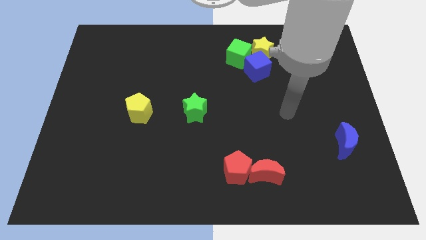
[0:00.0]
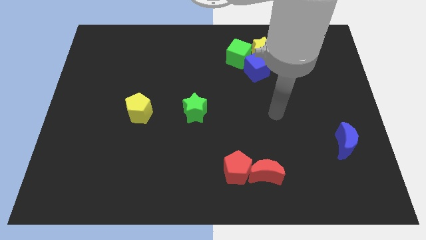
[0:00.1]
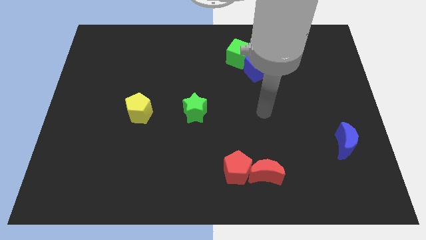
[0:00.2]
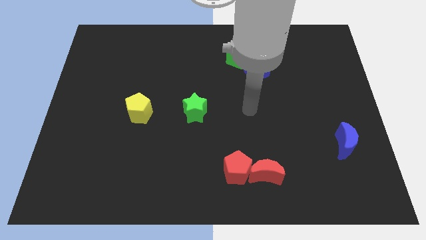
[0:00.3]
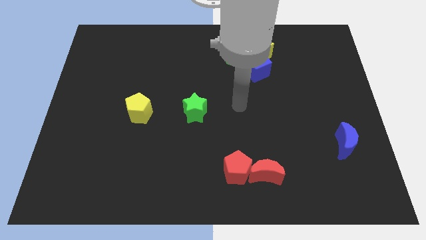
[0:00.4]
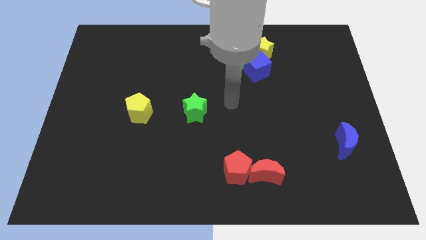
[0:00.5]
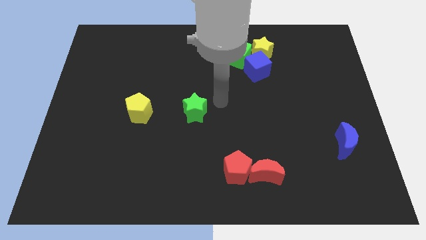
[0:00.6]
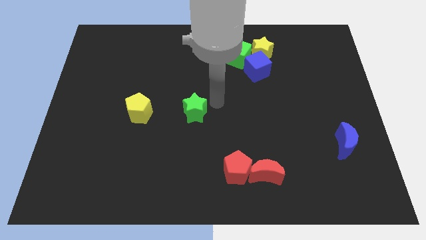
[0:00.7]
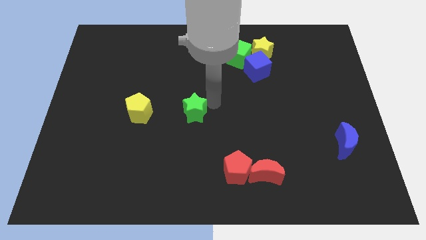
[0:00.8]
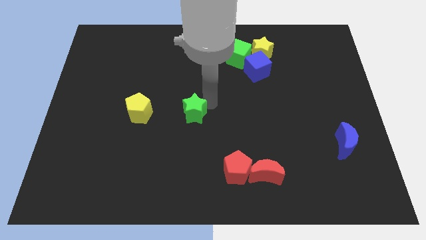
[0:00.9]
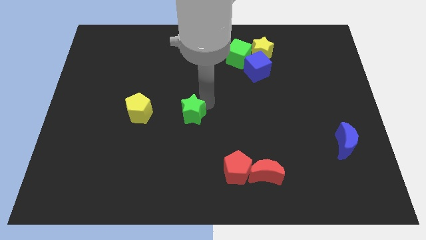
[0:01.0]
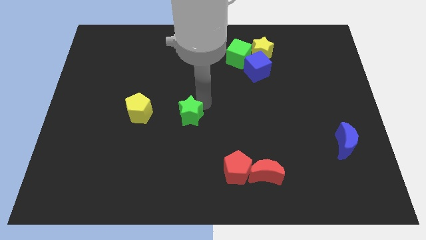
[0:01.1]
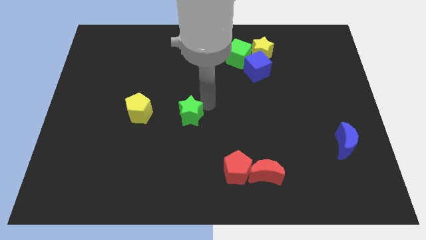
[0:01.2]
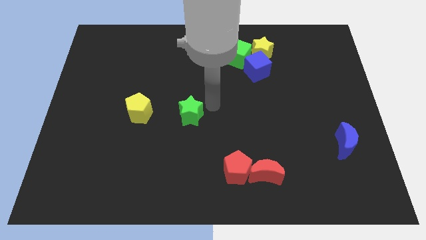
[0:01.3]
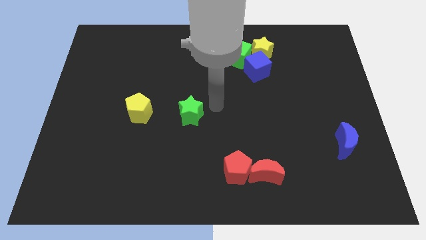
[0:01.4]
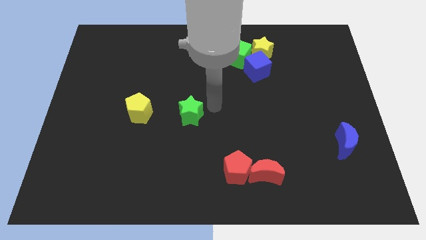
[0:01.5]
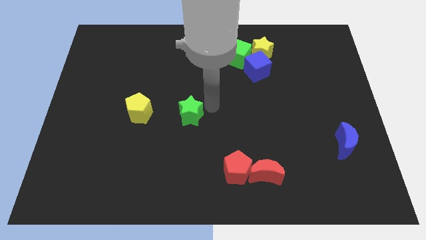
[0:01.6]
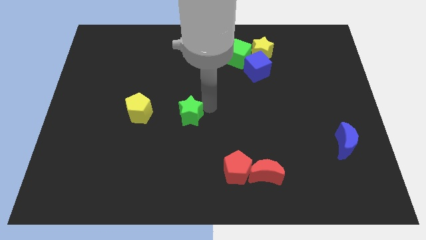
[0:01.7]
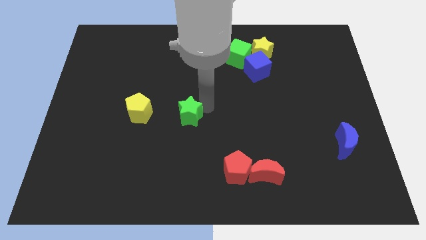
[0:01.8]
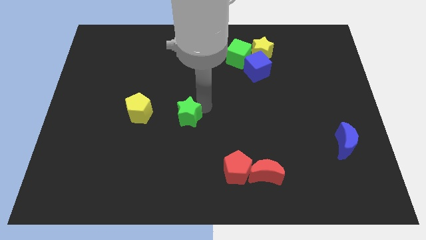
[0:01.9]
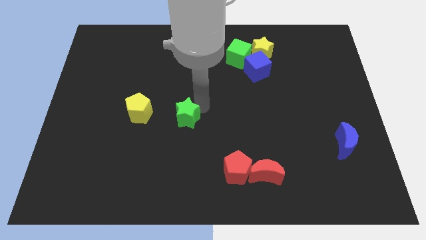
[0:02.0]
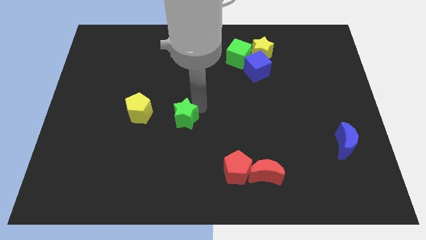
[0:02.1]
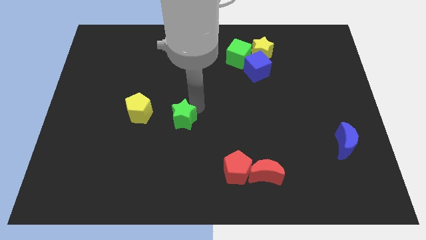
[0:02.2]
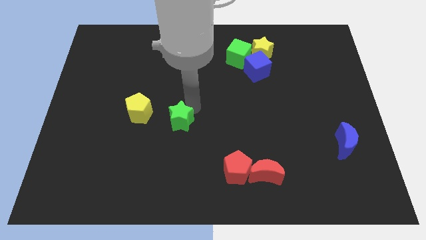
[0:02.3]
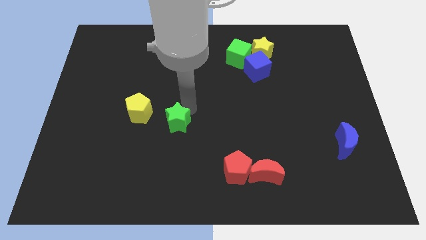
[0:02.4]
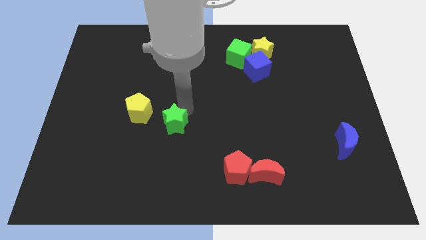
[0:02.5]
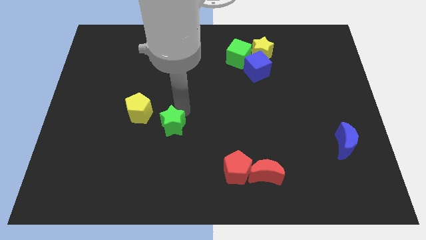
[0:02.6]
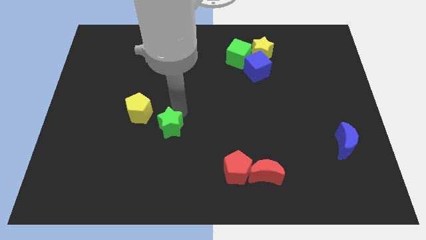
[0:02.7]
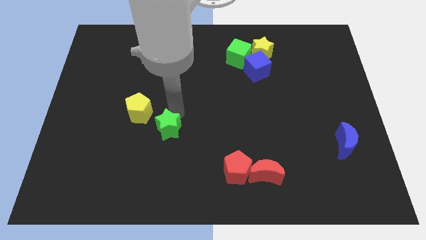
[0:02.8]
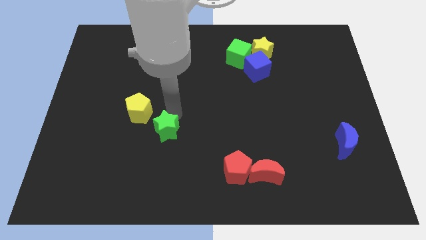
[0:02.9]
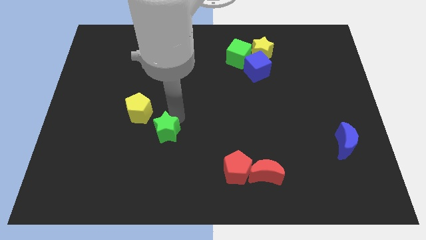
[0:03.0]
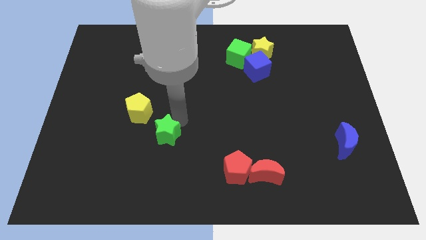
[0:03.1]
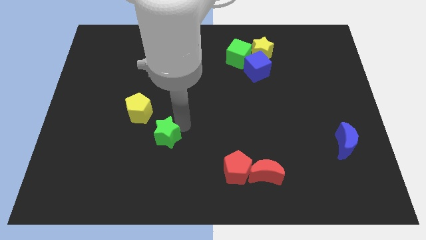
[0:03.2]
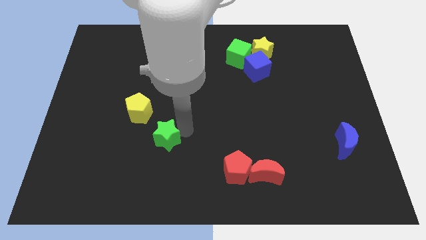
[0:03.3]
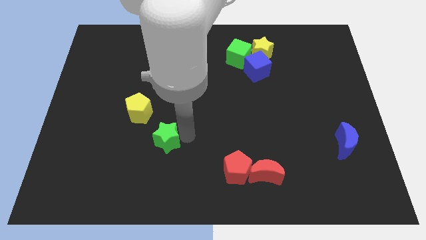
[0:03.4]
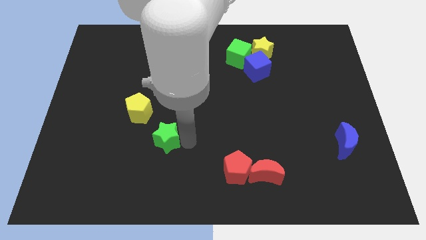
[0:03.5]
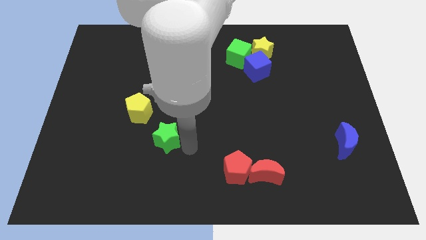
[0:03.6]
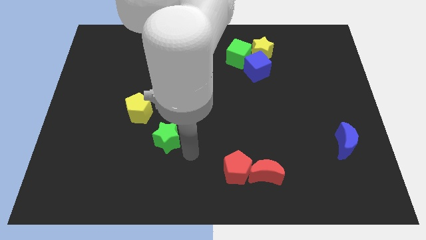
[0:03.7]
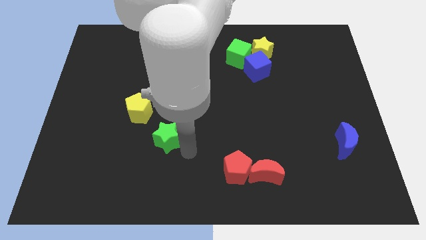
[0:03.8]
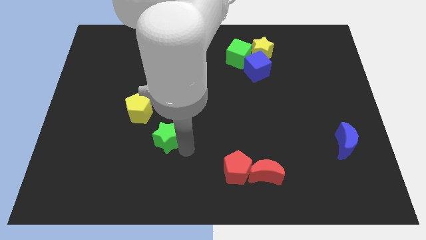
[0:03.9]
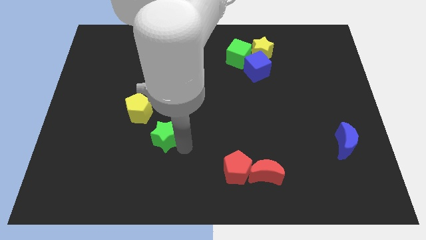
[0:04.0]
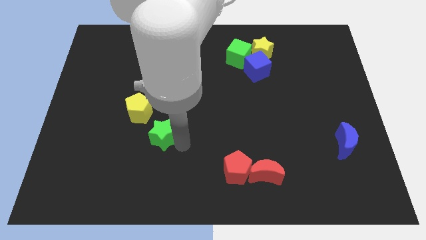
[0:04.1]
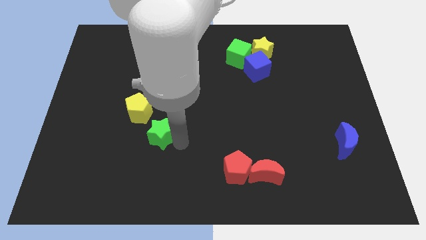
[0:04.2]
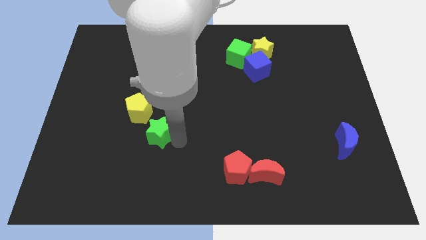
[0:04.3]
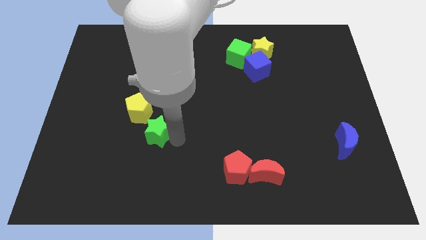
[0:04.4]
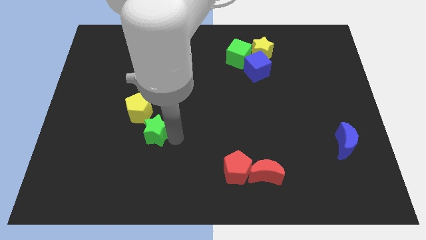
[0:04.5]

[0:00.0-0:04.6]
move the green star a little bit to the left

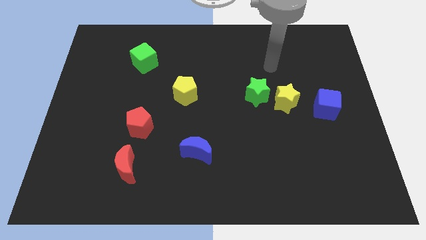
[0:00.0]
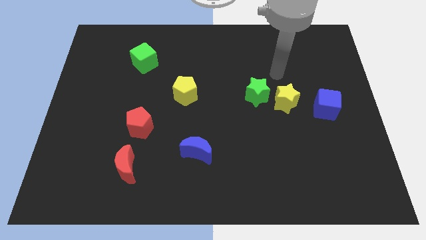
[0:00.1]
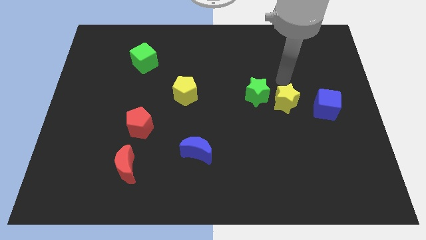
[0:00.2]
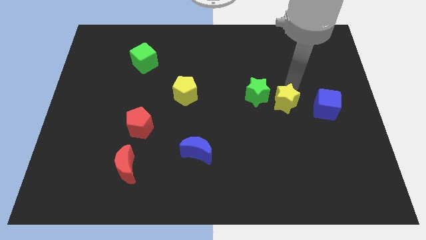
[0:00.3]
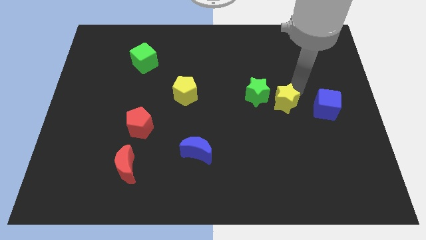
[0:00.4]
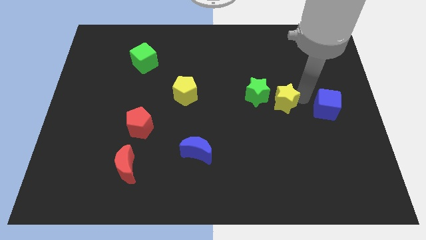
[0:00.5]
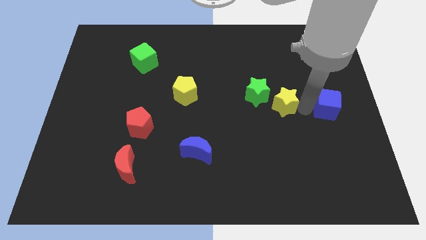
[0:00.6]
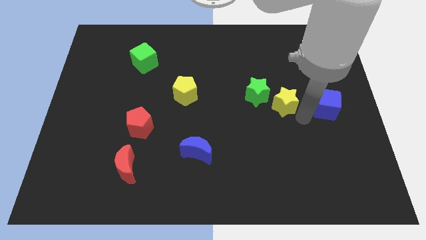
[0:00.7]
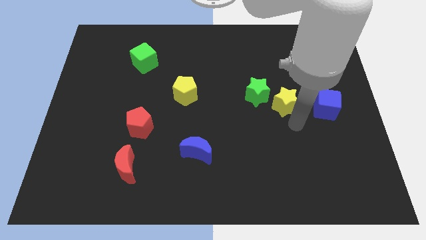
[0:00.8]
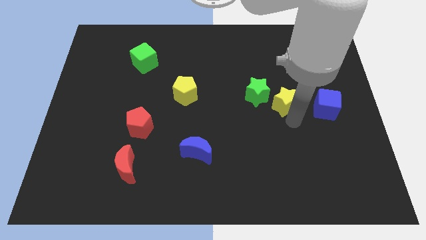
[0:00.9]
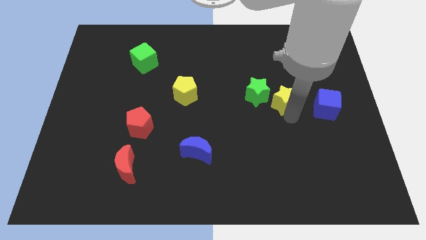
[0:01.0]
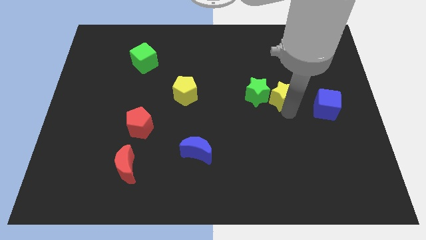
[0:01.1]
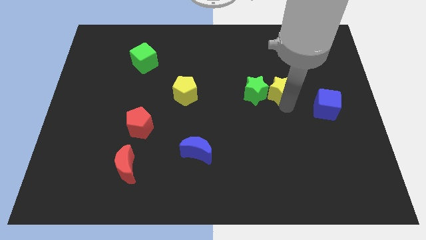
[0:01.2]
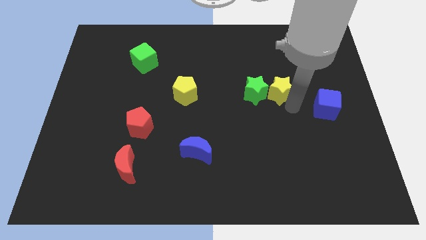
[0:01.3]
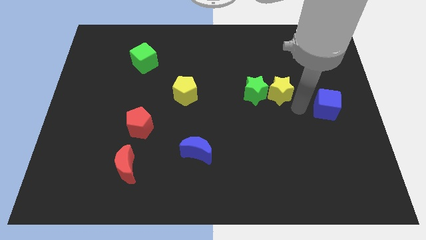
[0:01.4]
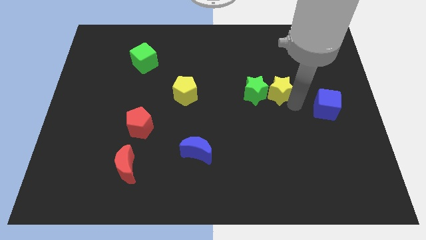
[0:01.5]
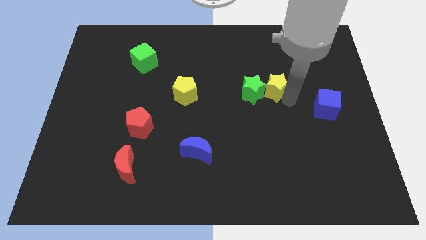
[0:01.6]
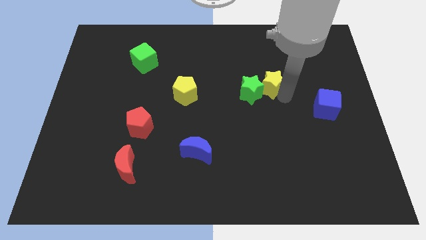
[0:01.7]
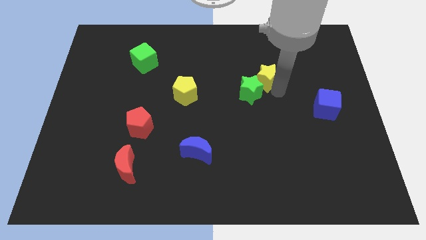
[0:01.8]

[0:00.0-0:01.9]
move the yellow star up and left diagonally a little bit

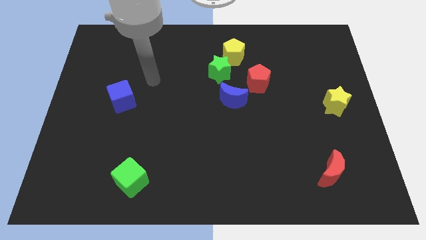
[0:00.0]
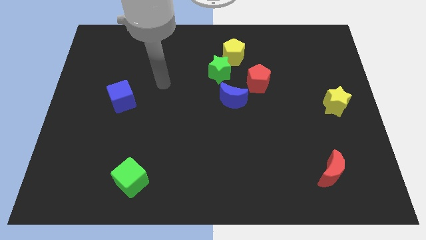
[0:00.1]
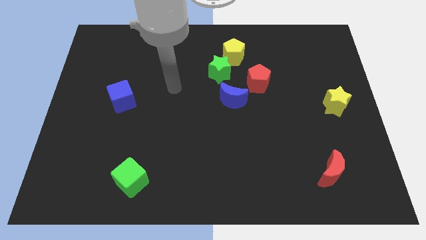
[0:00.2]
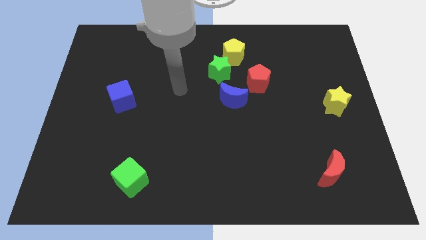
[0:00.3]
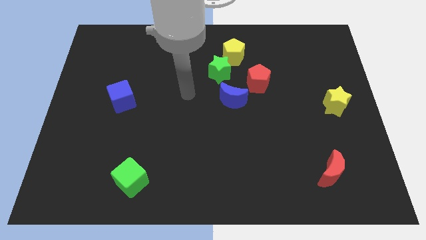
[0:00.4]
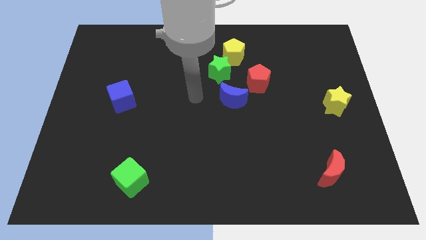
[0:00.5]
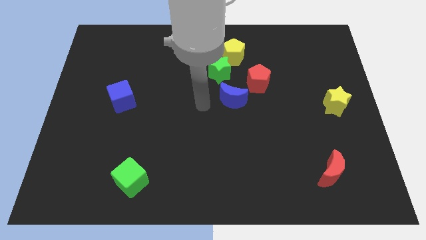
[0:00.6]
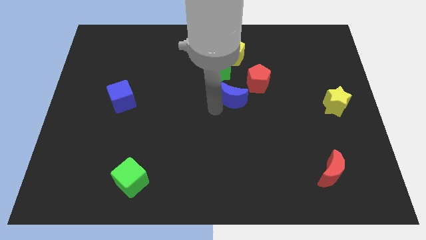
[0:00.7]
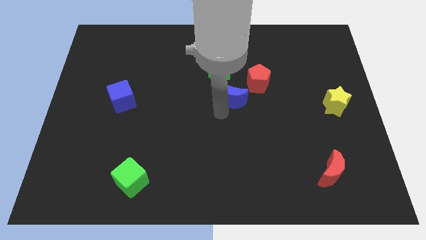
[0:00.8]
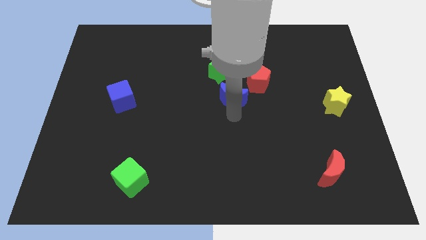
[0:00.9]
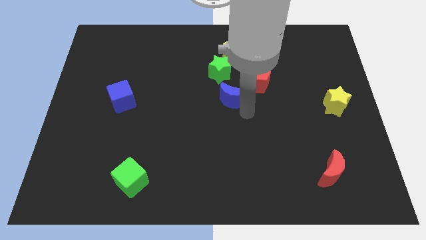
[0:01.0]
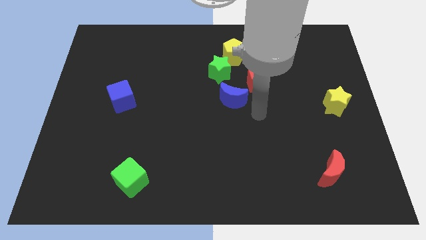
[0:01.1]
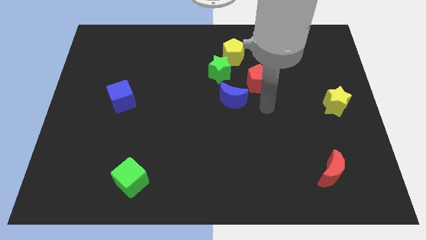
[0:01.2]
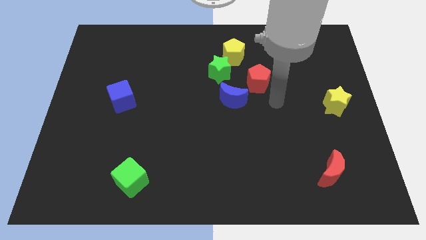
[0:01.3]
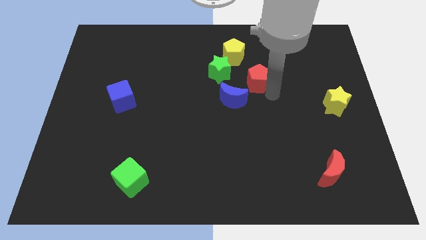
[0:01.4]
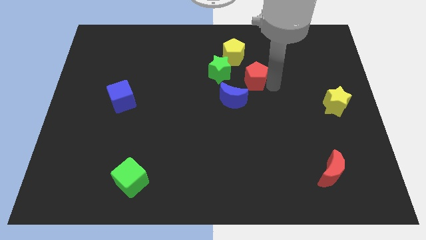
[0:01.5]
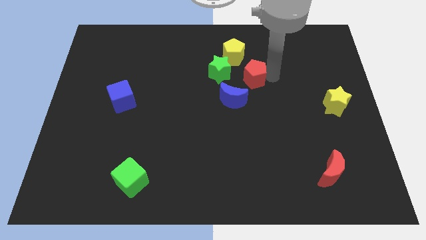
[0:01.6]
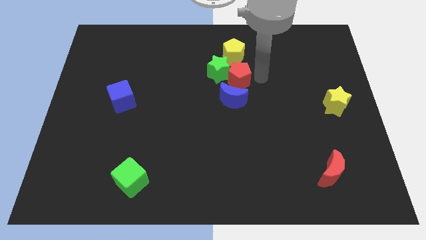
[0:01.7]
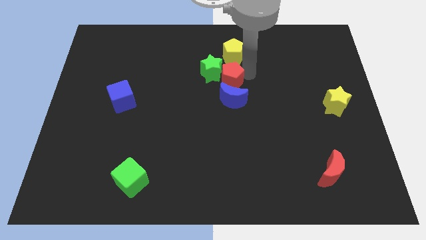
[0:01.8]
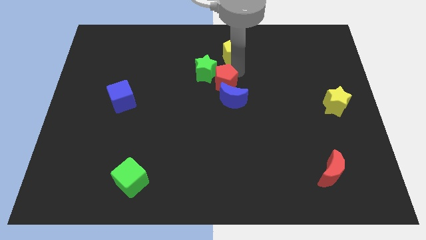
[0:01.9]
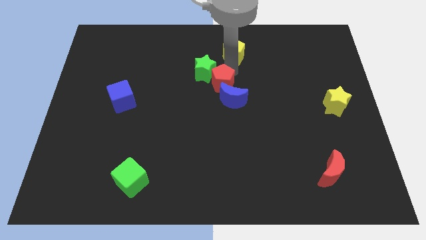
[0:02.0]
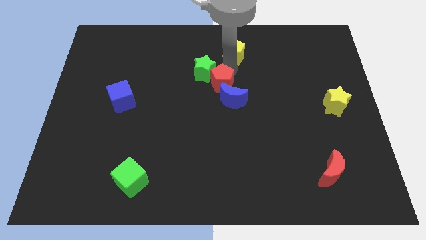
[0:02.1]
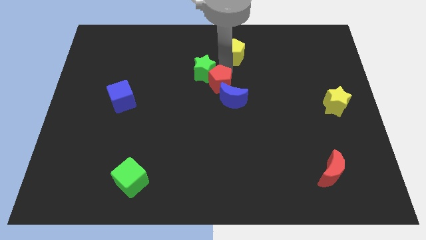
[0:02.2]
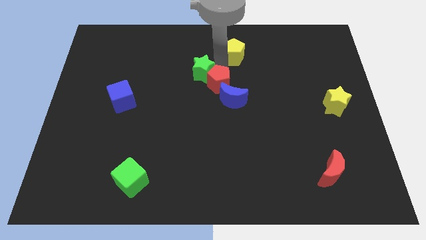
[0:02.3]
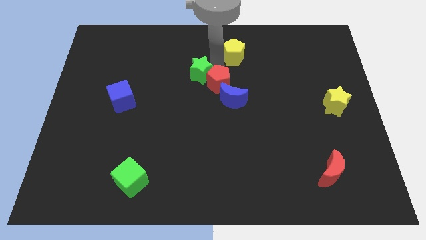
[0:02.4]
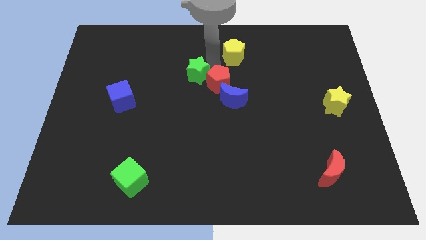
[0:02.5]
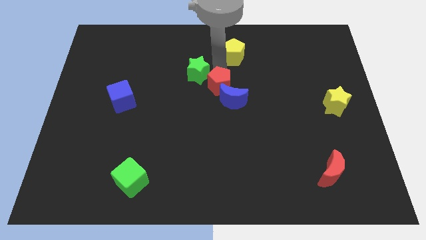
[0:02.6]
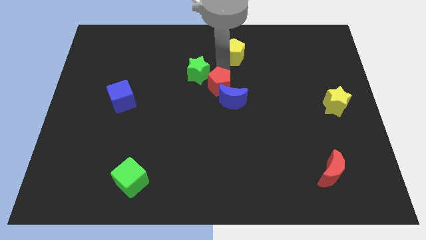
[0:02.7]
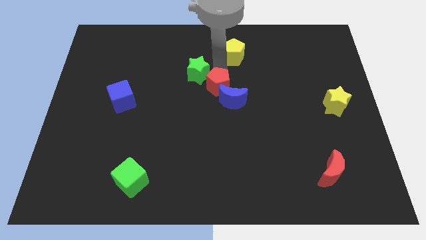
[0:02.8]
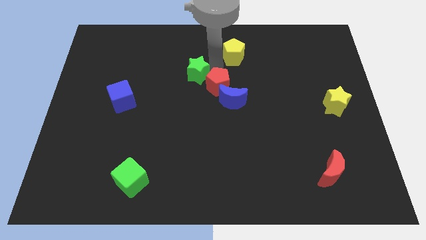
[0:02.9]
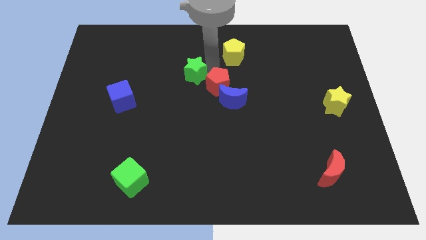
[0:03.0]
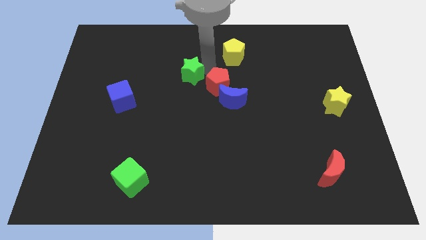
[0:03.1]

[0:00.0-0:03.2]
push the green star somewhat left
